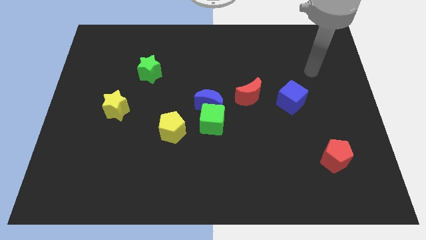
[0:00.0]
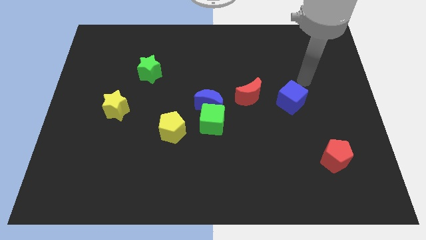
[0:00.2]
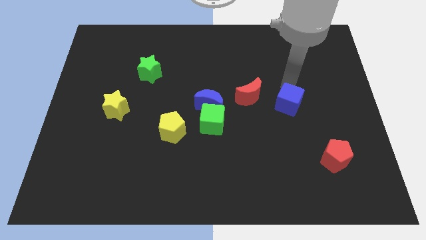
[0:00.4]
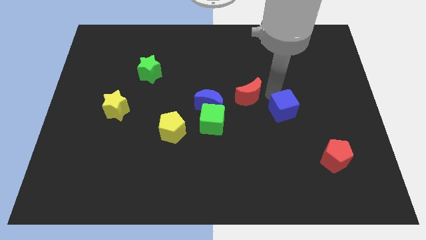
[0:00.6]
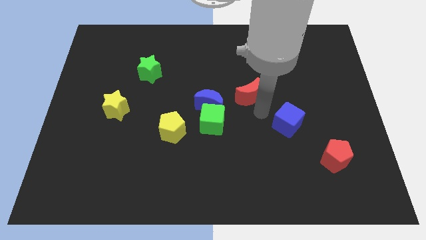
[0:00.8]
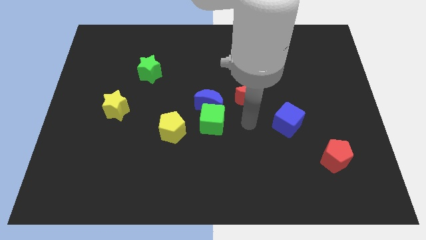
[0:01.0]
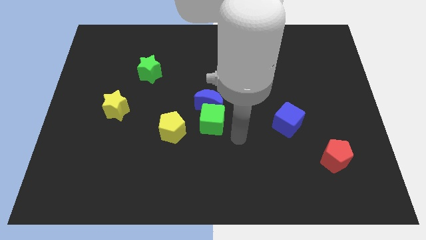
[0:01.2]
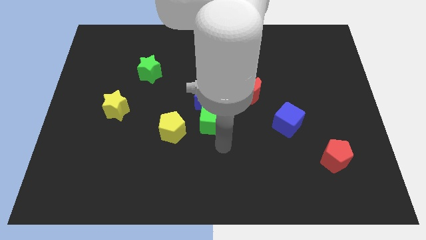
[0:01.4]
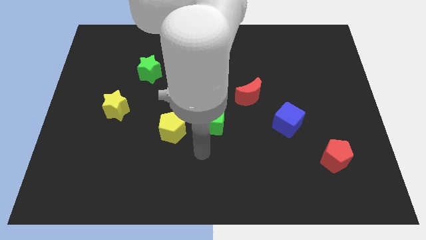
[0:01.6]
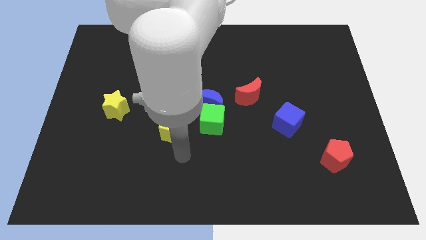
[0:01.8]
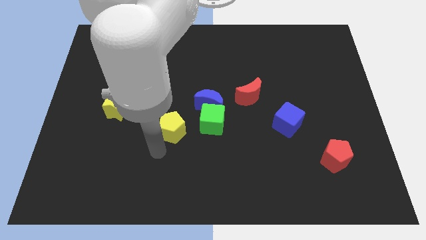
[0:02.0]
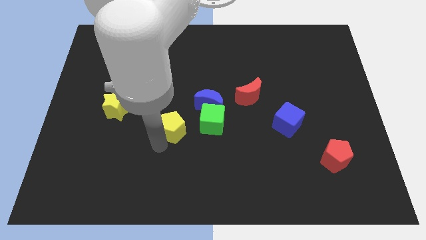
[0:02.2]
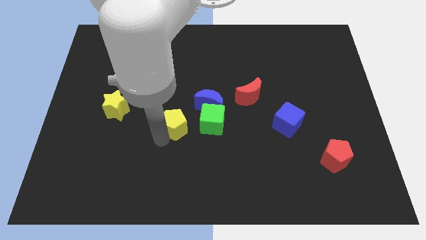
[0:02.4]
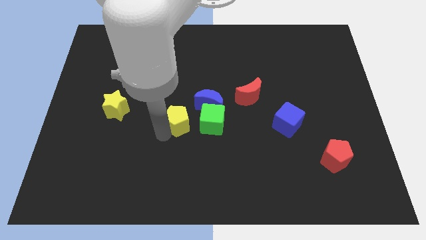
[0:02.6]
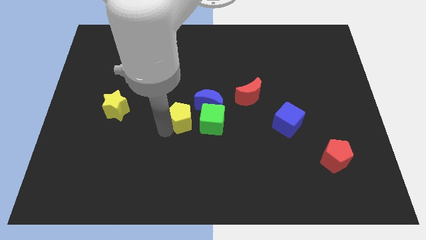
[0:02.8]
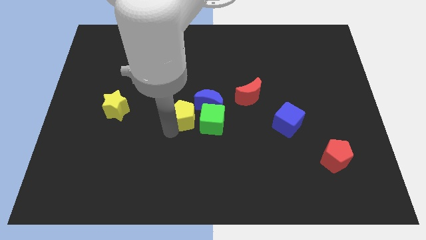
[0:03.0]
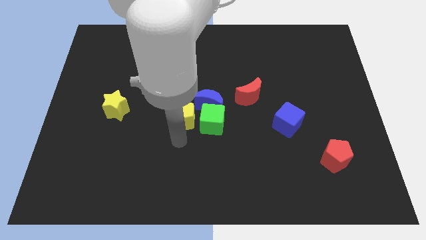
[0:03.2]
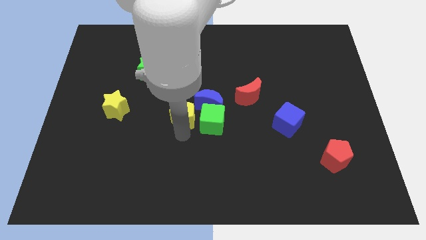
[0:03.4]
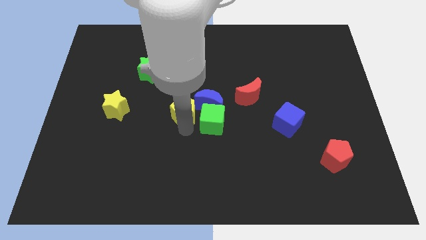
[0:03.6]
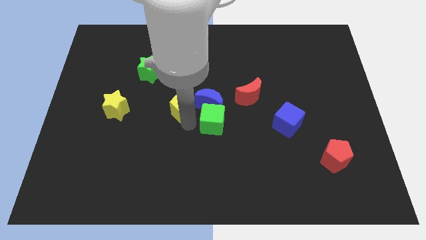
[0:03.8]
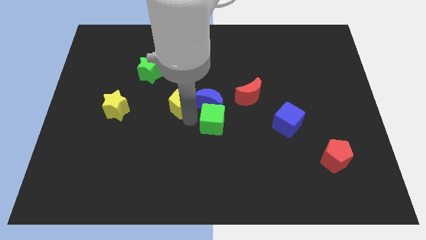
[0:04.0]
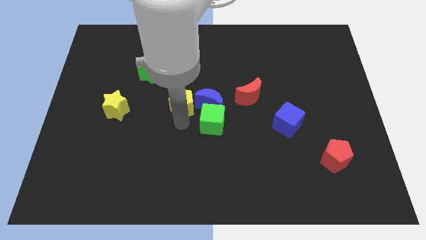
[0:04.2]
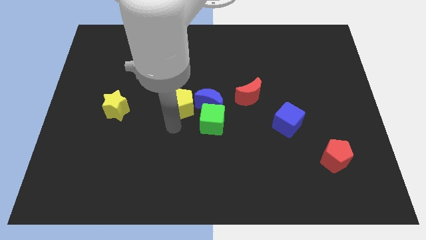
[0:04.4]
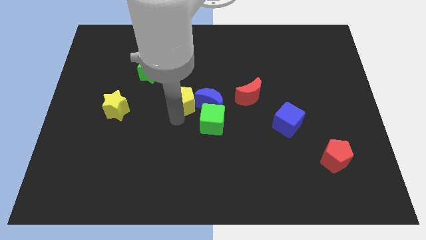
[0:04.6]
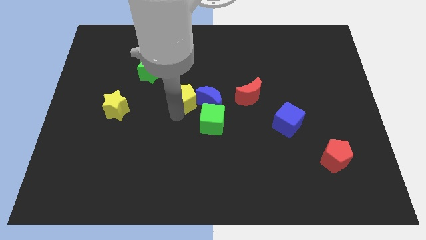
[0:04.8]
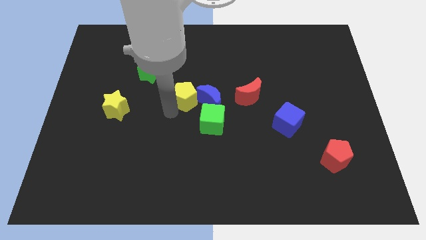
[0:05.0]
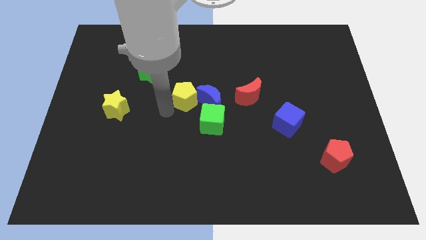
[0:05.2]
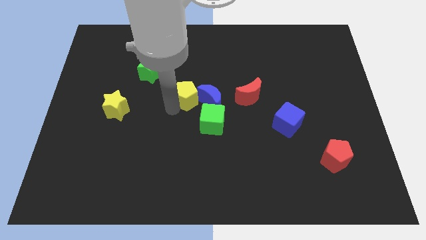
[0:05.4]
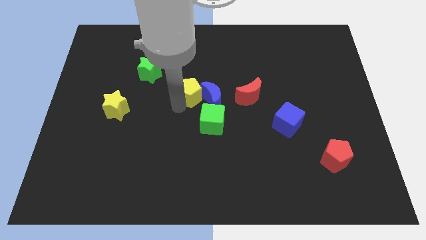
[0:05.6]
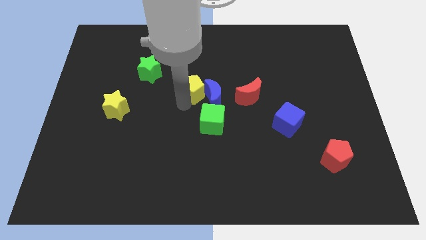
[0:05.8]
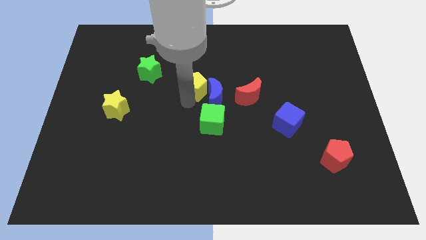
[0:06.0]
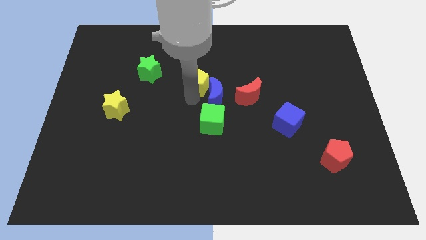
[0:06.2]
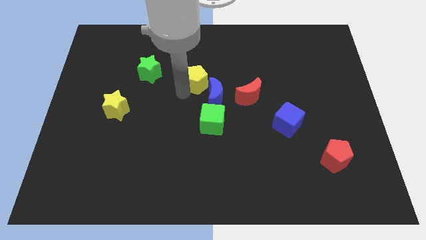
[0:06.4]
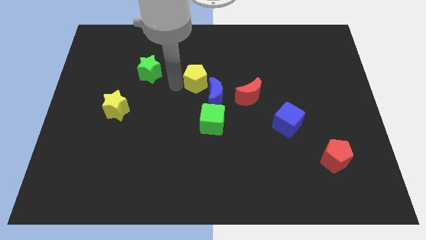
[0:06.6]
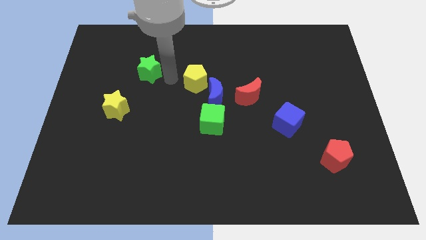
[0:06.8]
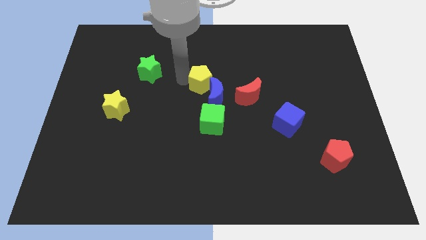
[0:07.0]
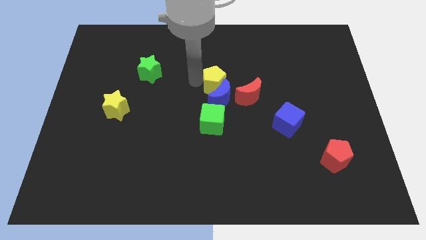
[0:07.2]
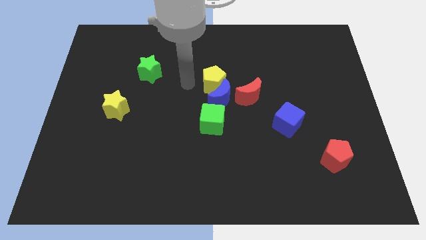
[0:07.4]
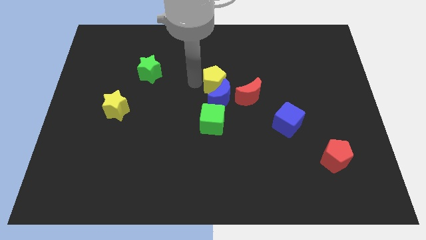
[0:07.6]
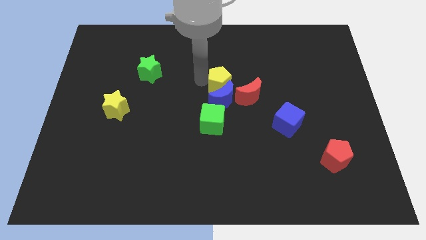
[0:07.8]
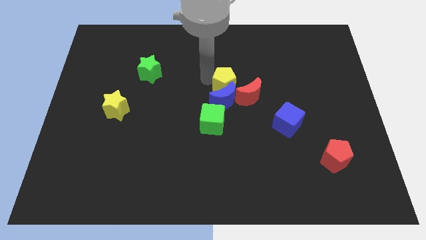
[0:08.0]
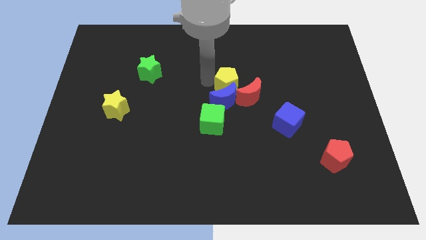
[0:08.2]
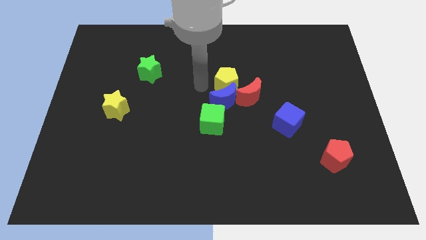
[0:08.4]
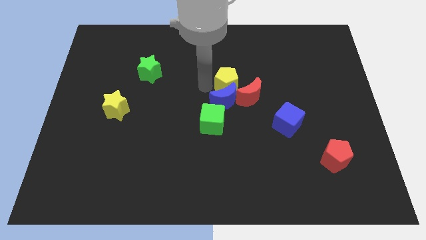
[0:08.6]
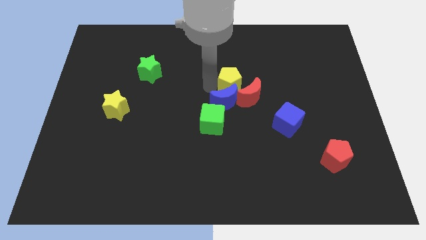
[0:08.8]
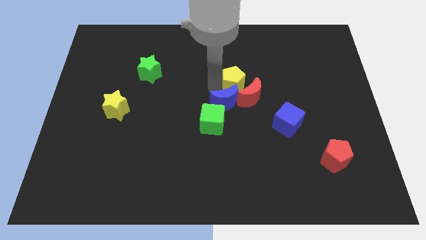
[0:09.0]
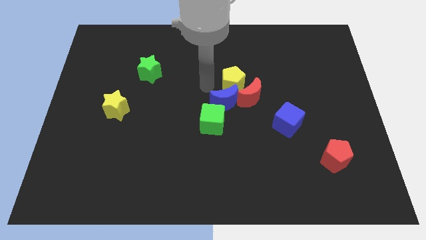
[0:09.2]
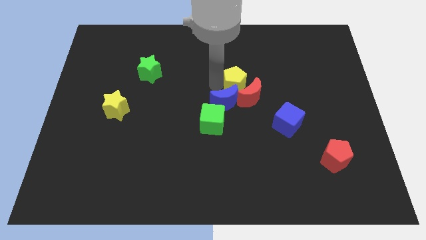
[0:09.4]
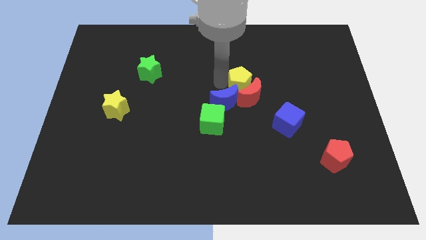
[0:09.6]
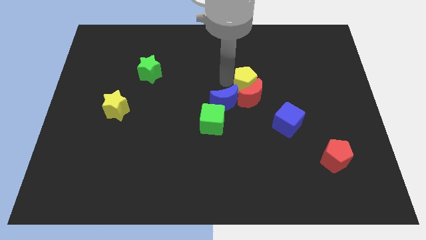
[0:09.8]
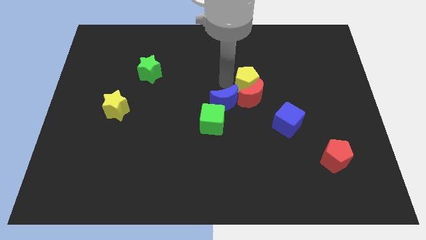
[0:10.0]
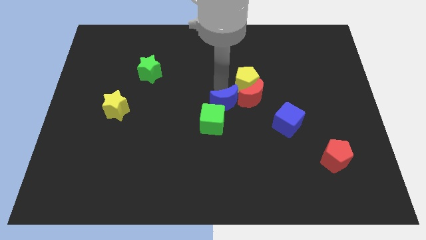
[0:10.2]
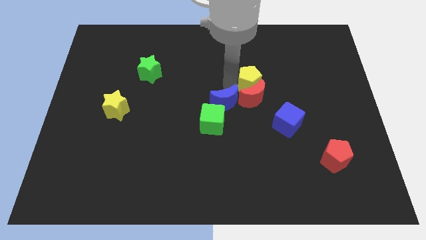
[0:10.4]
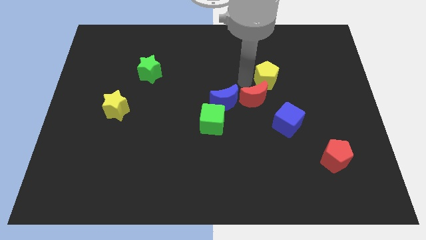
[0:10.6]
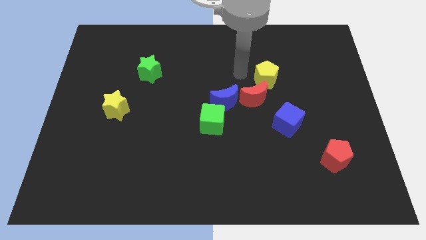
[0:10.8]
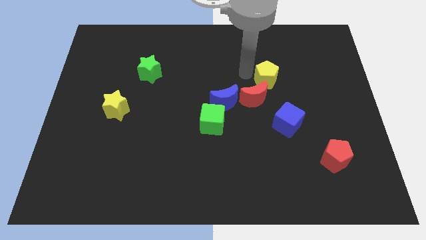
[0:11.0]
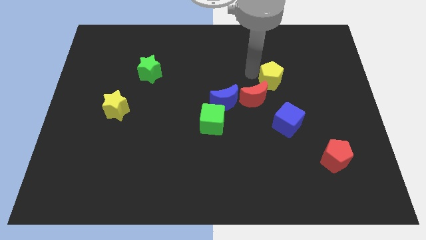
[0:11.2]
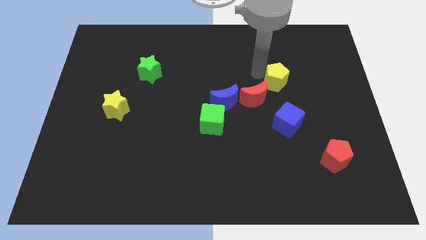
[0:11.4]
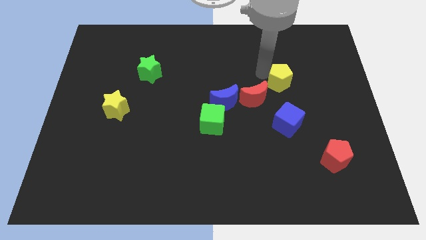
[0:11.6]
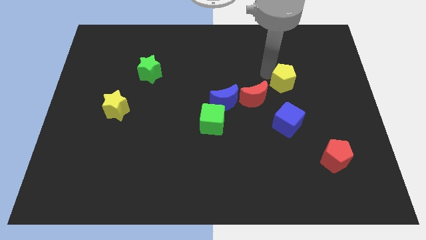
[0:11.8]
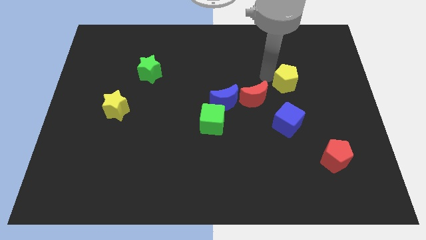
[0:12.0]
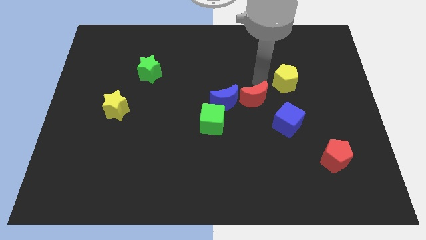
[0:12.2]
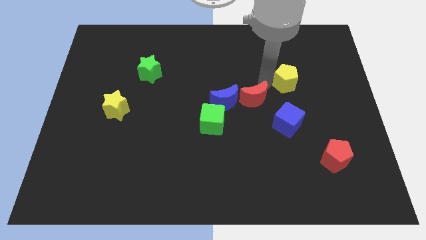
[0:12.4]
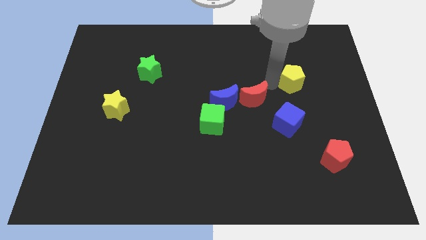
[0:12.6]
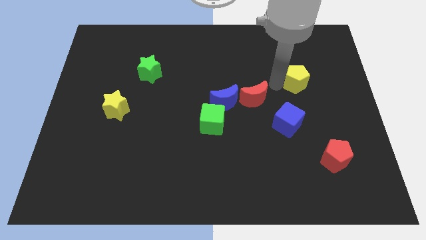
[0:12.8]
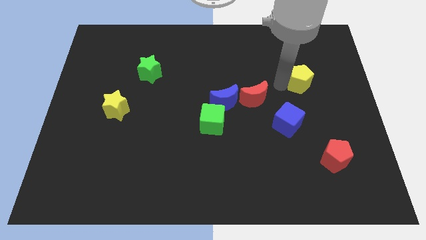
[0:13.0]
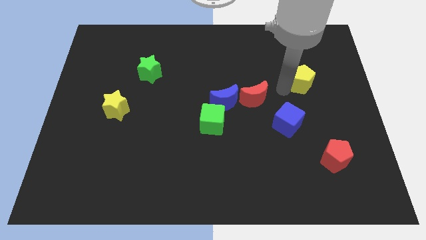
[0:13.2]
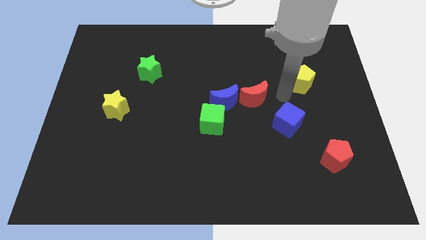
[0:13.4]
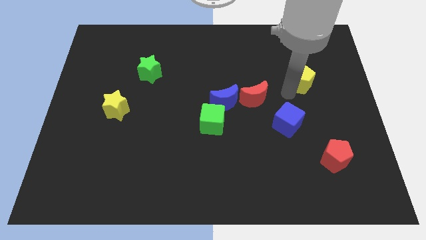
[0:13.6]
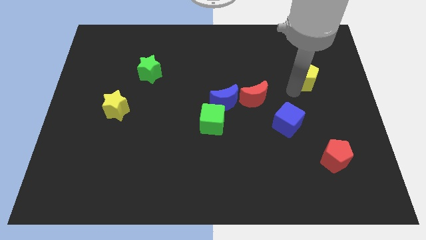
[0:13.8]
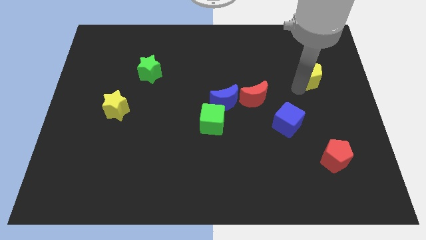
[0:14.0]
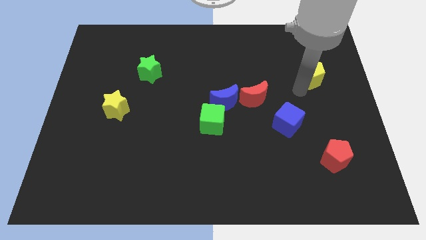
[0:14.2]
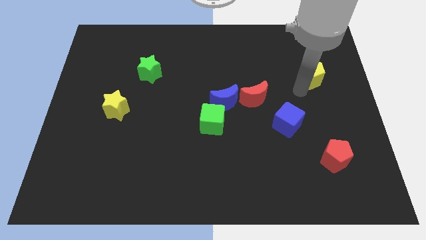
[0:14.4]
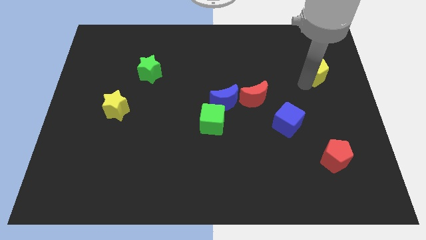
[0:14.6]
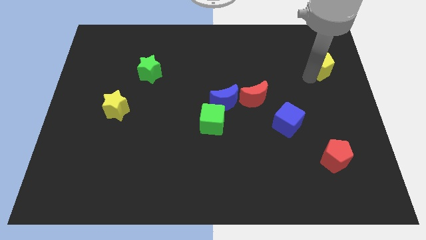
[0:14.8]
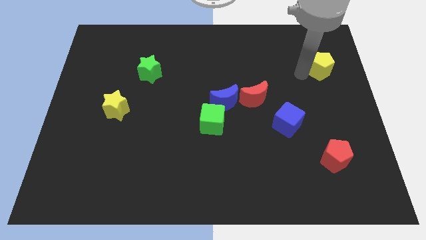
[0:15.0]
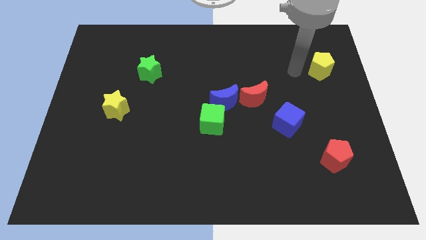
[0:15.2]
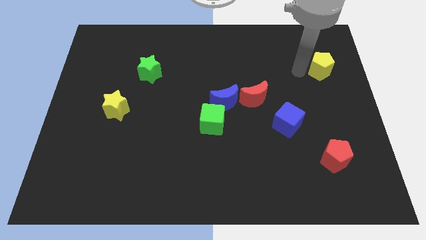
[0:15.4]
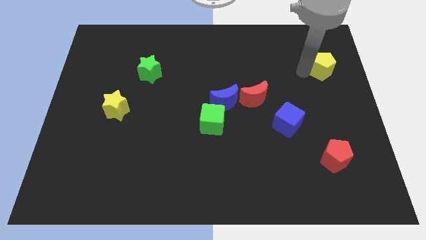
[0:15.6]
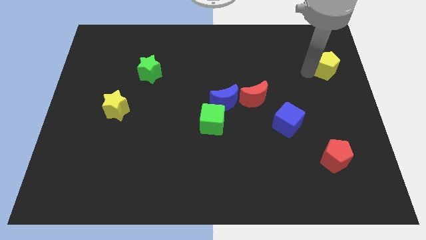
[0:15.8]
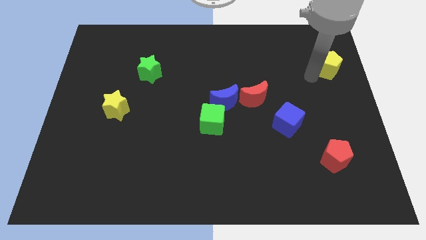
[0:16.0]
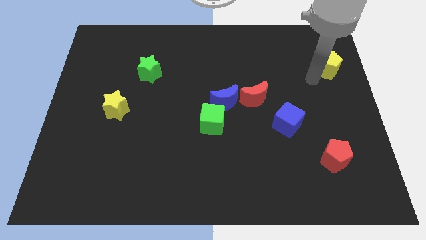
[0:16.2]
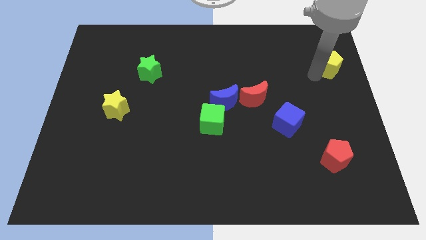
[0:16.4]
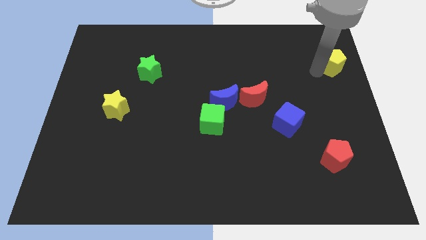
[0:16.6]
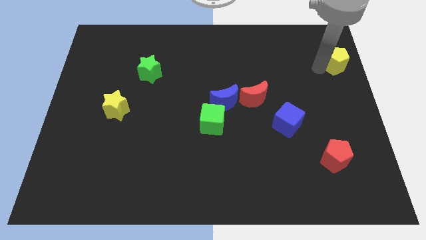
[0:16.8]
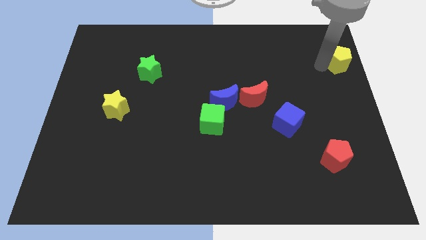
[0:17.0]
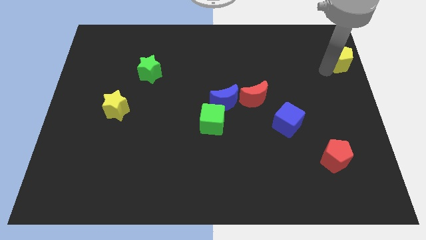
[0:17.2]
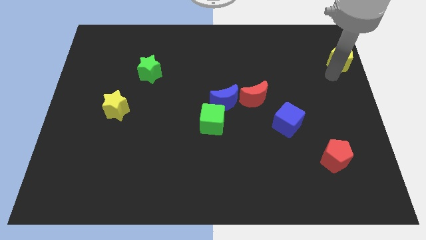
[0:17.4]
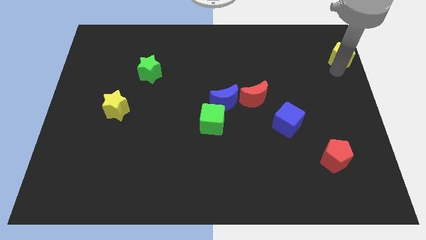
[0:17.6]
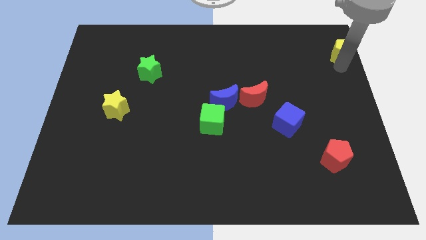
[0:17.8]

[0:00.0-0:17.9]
move the yellow pentagon to the upper right corner
